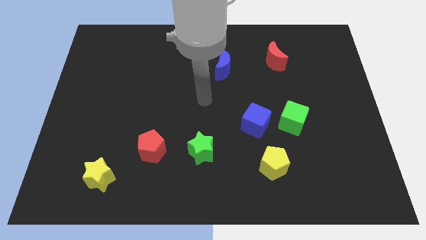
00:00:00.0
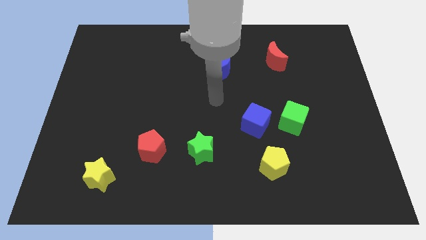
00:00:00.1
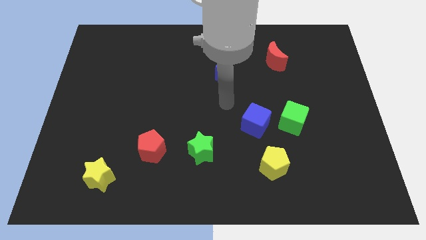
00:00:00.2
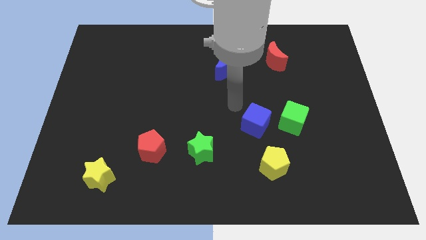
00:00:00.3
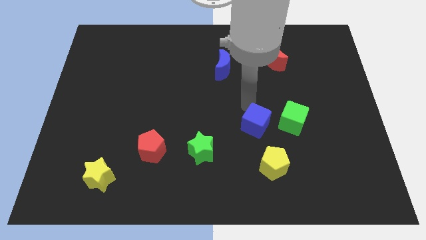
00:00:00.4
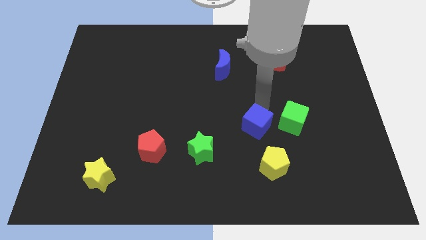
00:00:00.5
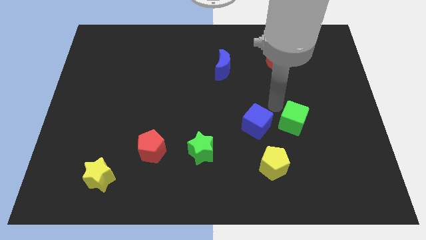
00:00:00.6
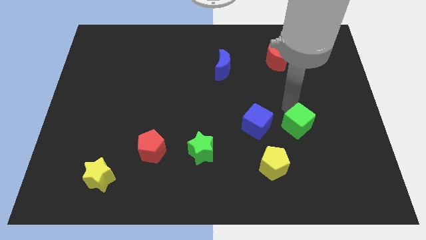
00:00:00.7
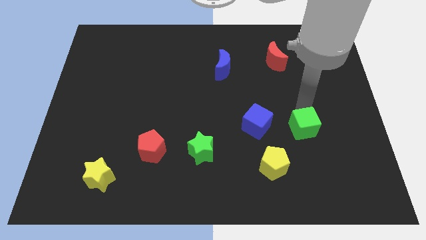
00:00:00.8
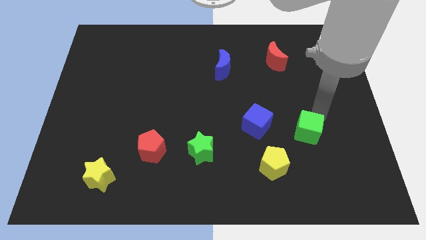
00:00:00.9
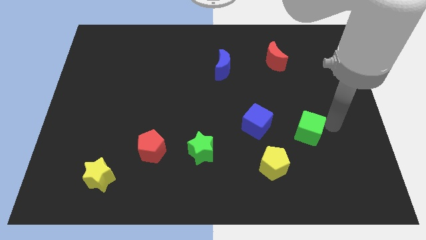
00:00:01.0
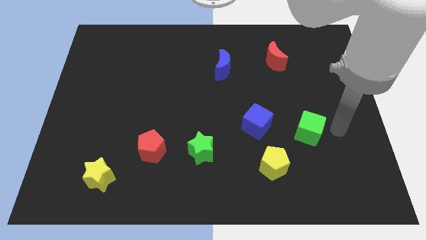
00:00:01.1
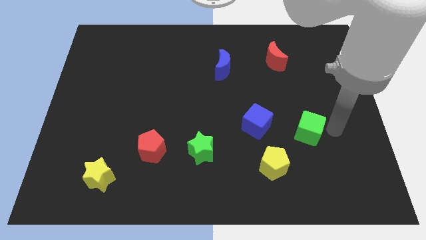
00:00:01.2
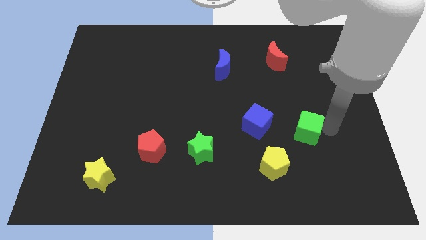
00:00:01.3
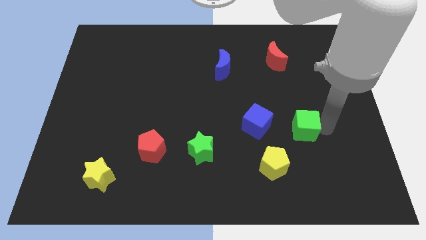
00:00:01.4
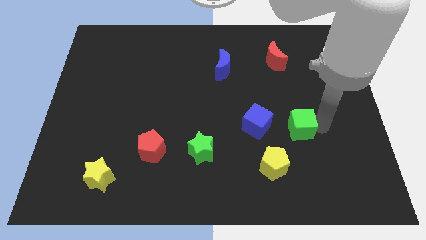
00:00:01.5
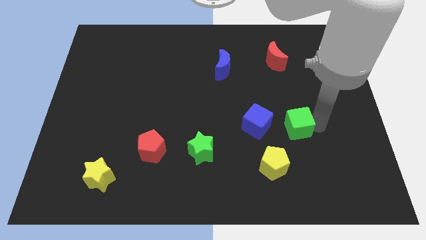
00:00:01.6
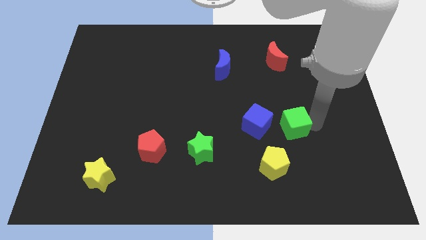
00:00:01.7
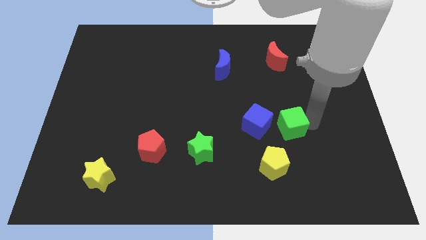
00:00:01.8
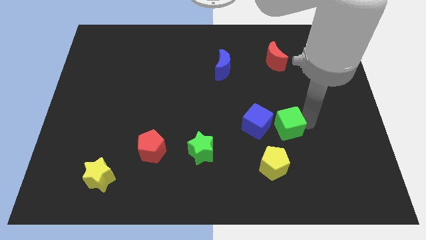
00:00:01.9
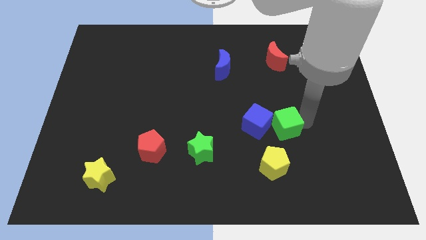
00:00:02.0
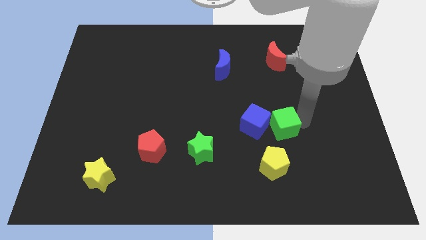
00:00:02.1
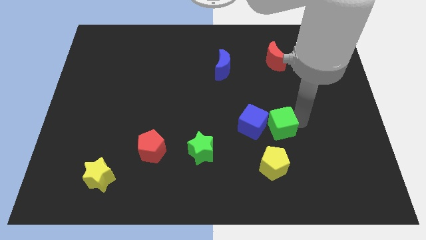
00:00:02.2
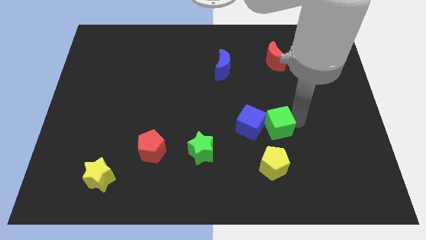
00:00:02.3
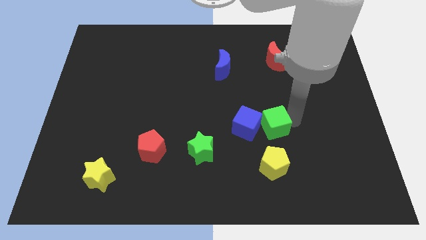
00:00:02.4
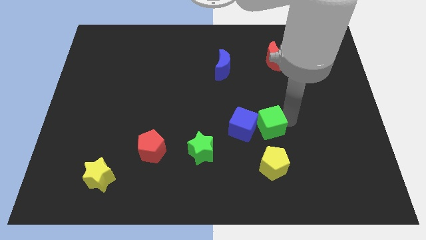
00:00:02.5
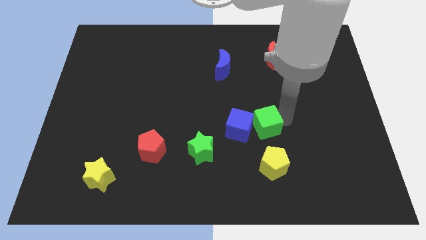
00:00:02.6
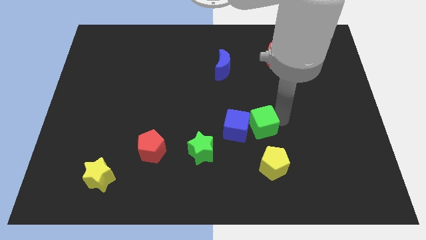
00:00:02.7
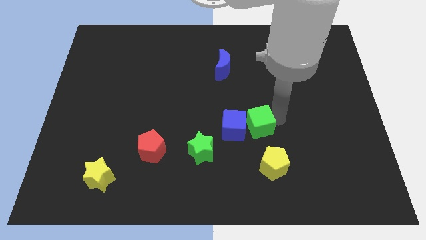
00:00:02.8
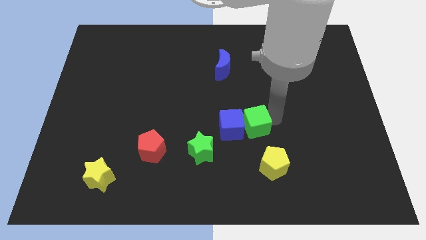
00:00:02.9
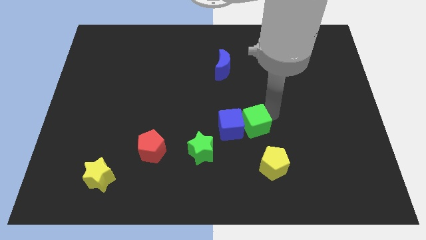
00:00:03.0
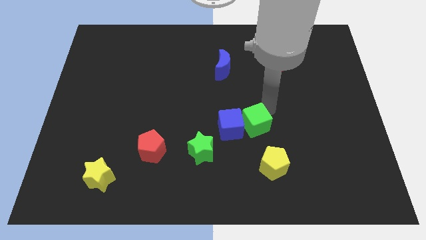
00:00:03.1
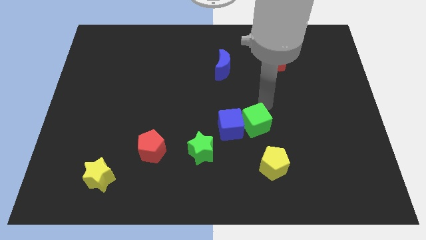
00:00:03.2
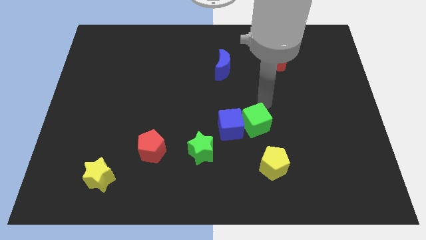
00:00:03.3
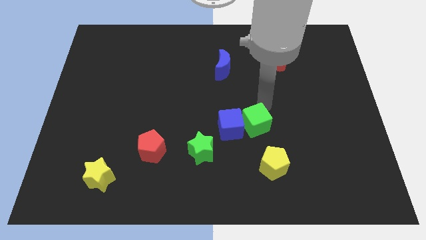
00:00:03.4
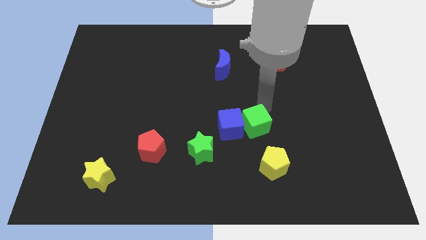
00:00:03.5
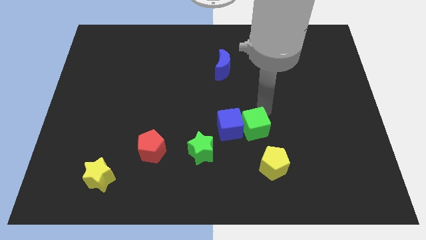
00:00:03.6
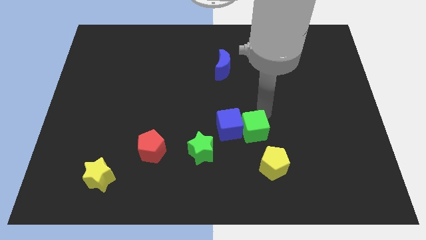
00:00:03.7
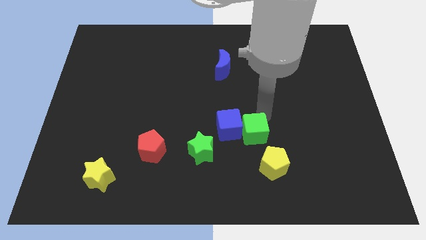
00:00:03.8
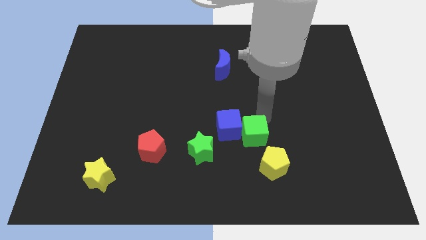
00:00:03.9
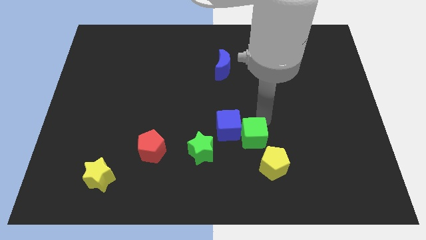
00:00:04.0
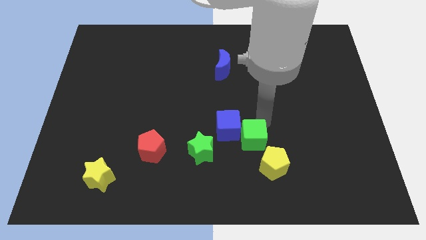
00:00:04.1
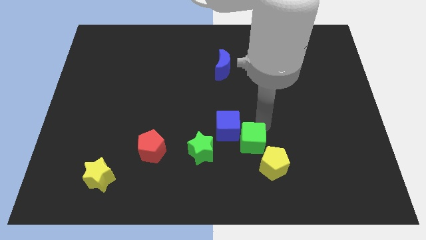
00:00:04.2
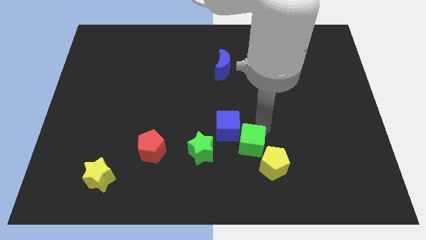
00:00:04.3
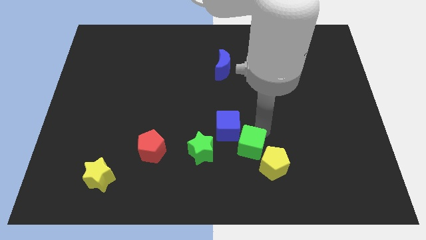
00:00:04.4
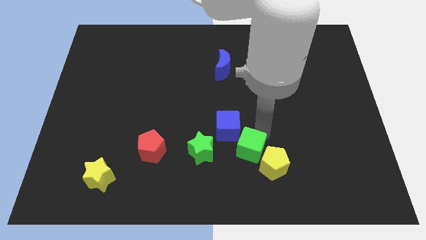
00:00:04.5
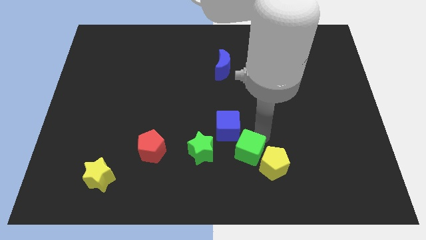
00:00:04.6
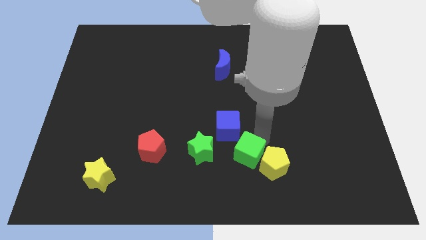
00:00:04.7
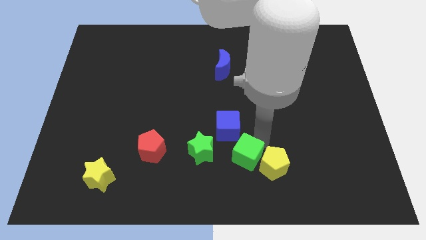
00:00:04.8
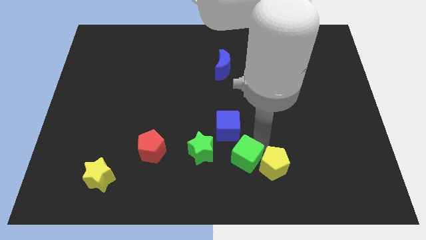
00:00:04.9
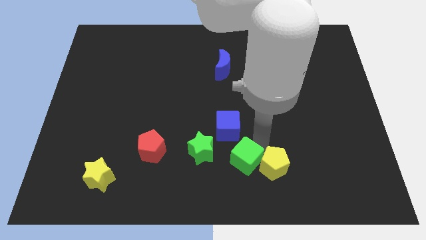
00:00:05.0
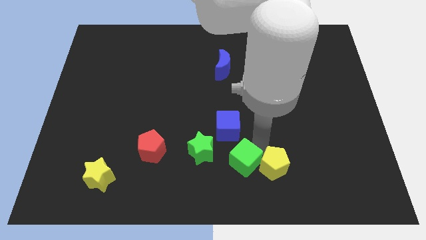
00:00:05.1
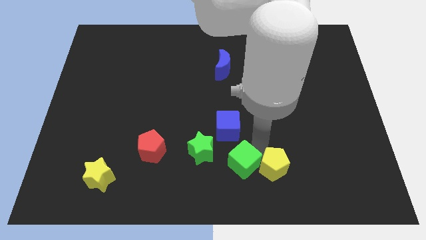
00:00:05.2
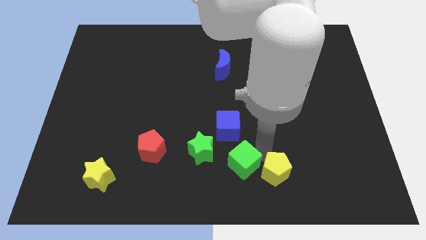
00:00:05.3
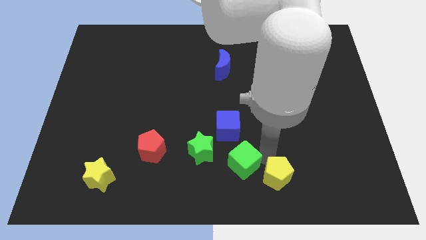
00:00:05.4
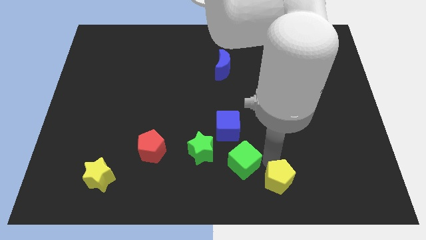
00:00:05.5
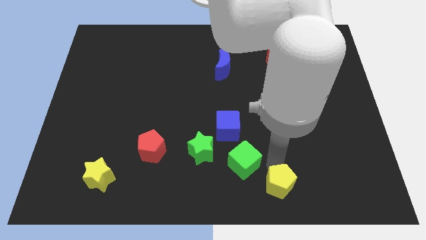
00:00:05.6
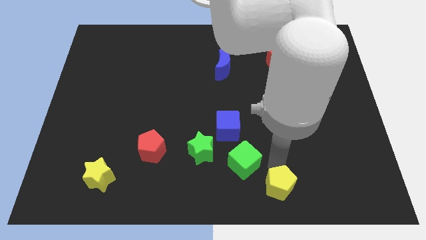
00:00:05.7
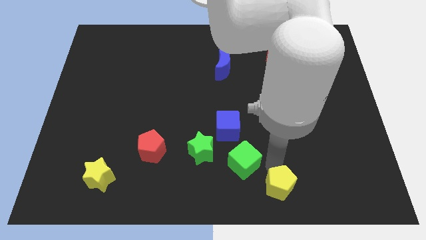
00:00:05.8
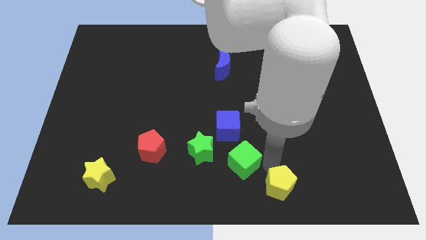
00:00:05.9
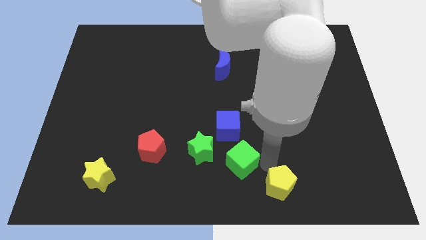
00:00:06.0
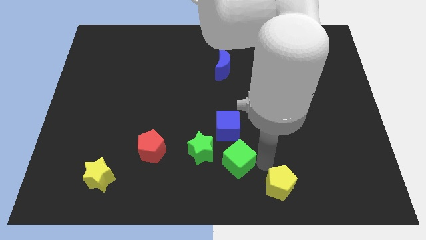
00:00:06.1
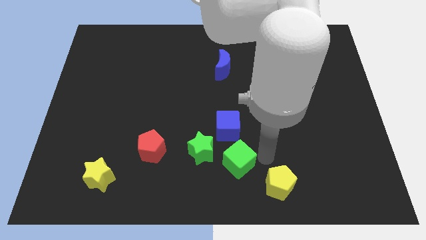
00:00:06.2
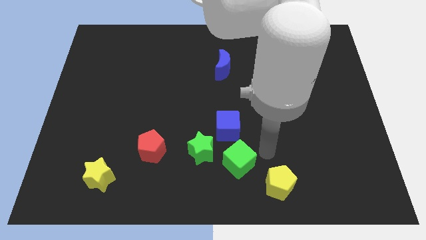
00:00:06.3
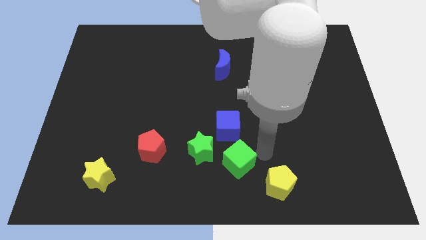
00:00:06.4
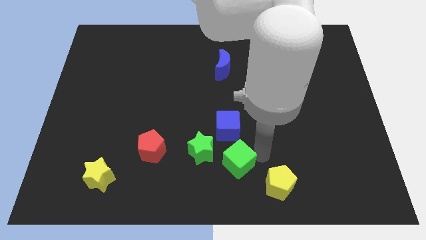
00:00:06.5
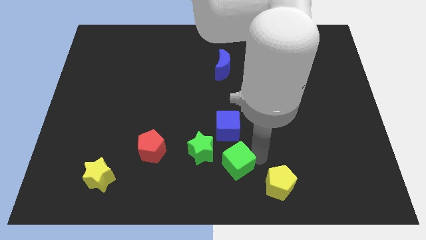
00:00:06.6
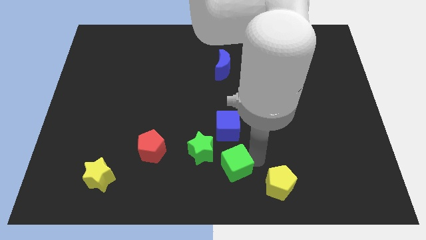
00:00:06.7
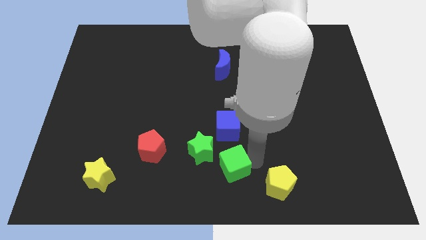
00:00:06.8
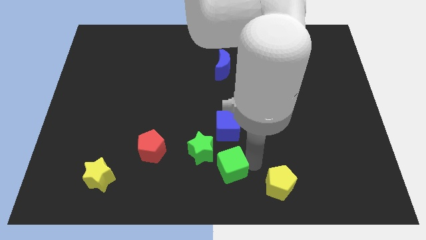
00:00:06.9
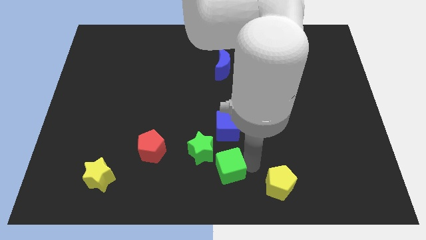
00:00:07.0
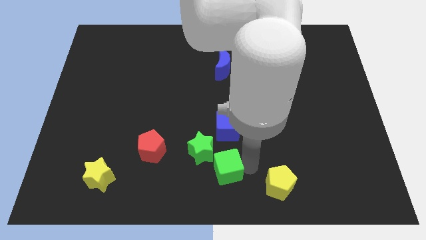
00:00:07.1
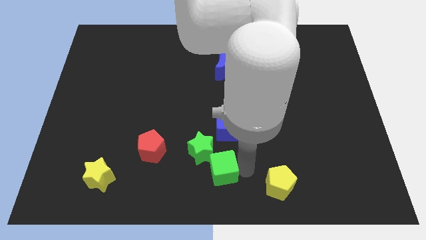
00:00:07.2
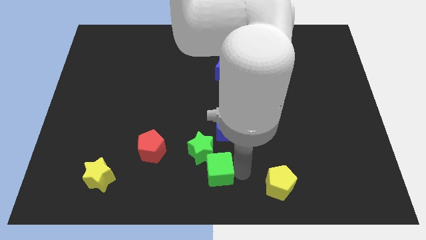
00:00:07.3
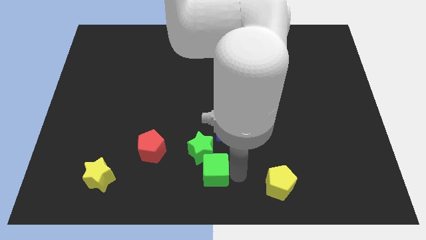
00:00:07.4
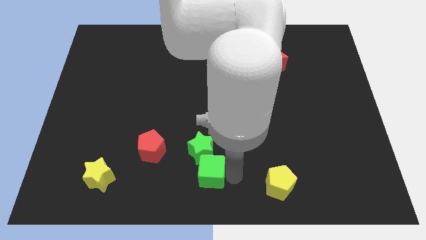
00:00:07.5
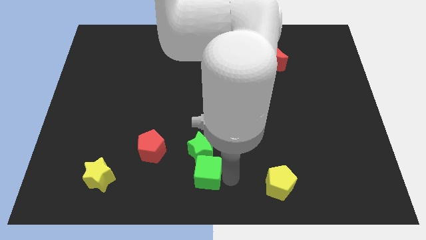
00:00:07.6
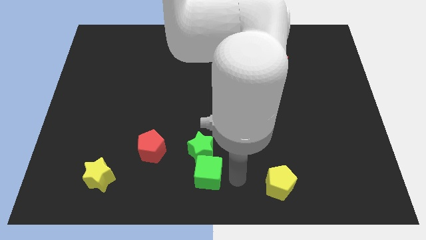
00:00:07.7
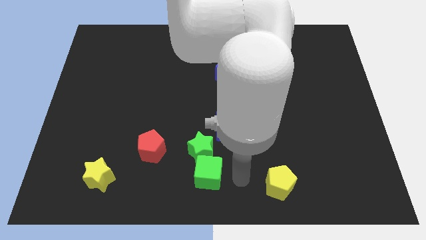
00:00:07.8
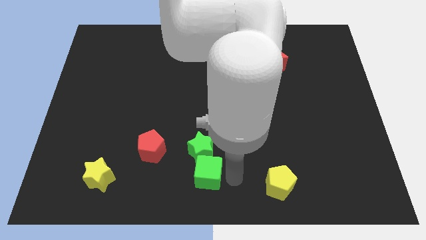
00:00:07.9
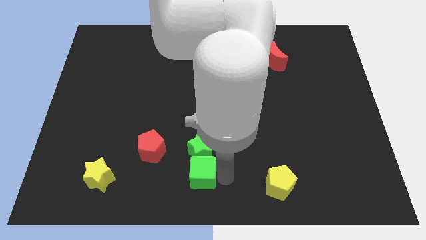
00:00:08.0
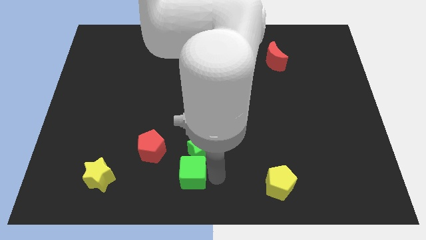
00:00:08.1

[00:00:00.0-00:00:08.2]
put the green cube to the bottom right side of the red pentagon
